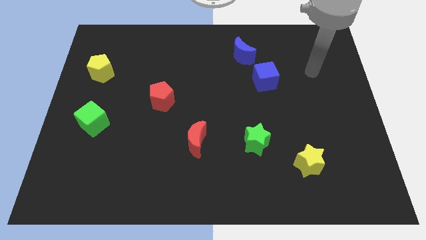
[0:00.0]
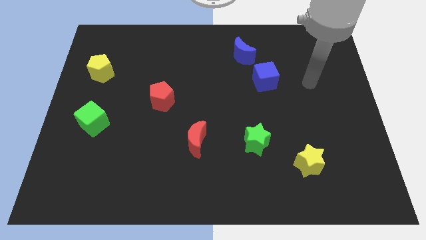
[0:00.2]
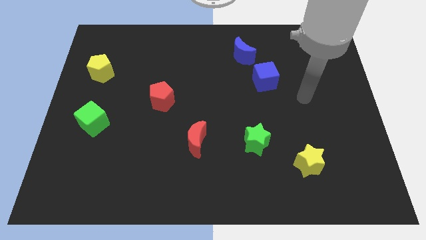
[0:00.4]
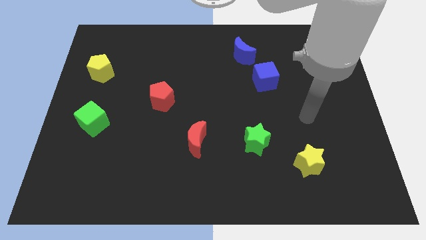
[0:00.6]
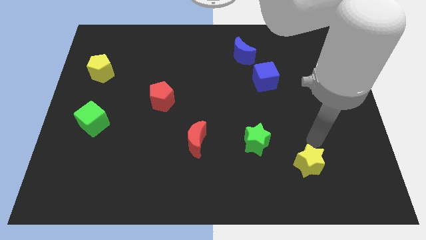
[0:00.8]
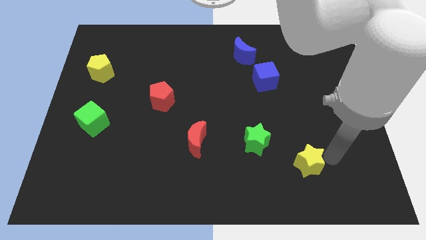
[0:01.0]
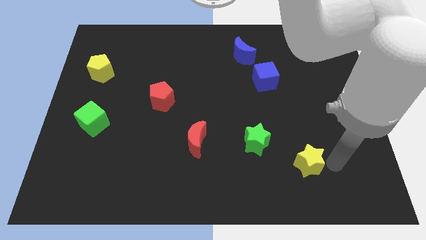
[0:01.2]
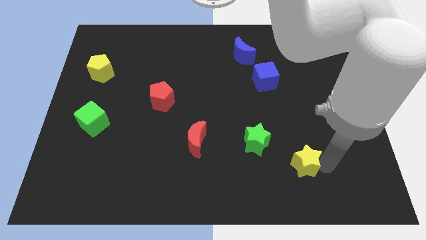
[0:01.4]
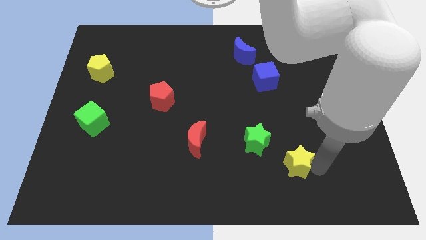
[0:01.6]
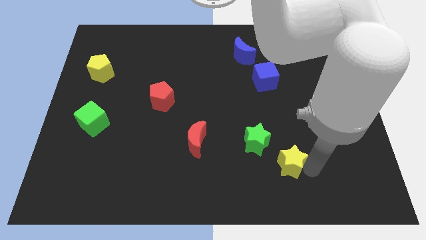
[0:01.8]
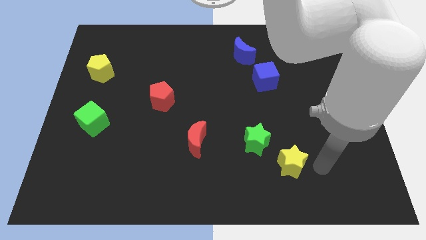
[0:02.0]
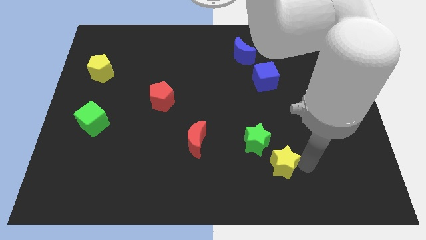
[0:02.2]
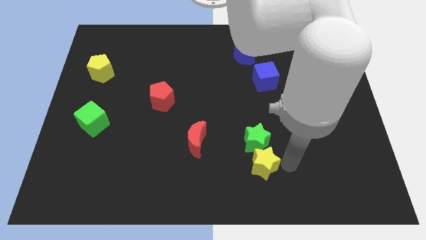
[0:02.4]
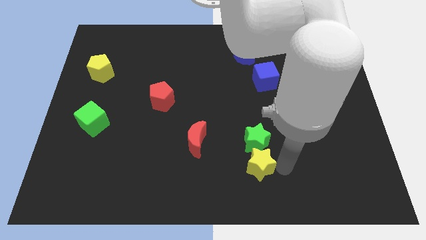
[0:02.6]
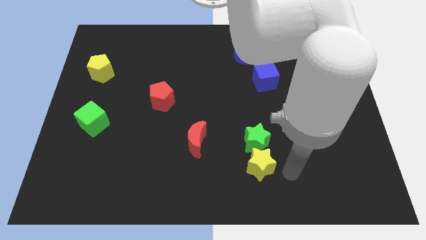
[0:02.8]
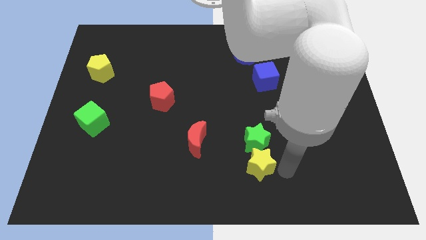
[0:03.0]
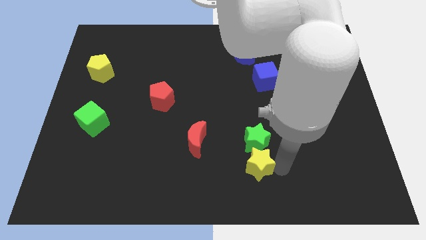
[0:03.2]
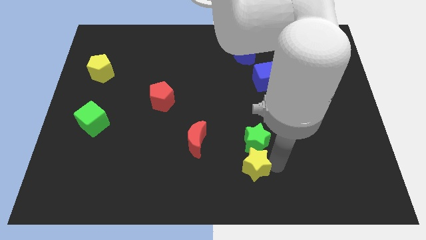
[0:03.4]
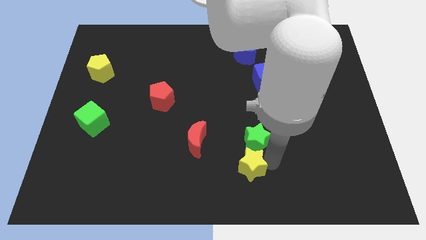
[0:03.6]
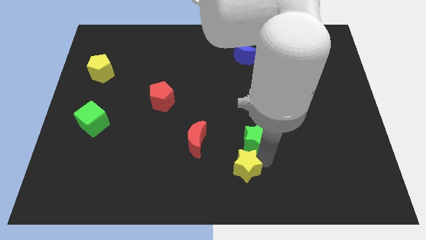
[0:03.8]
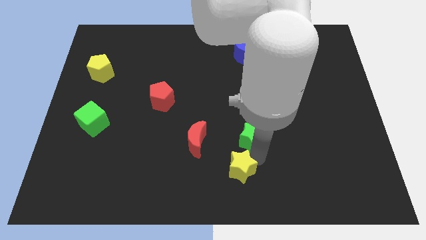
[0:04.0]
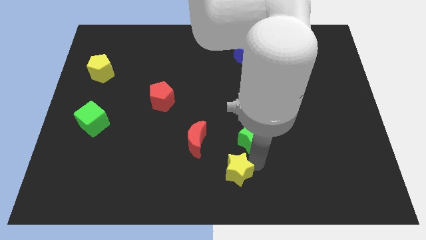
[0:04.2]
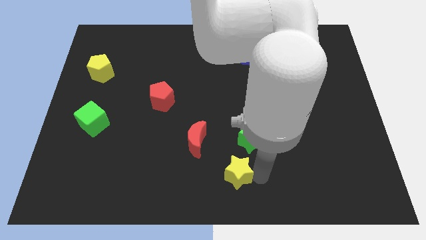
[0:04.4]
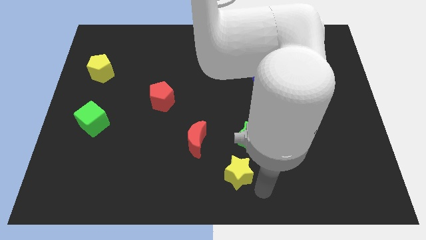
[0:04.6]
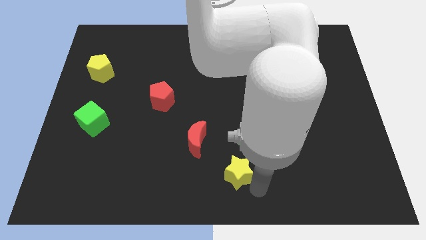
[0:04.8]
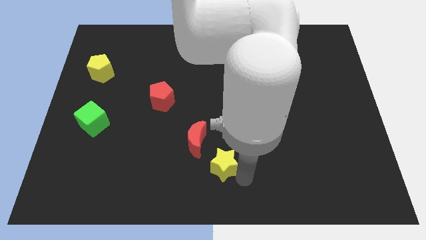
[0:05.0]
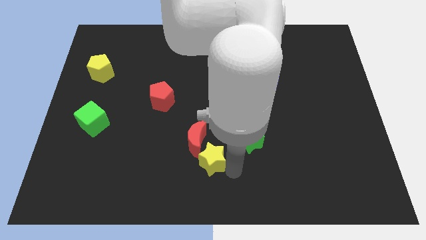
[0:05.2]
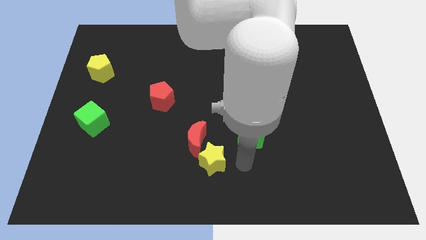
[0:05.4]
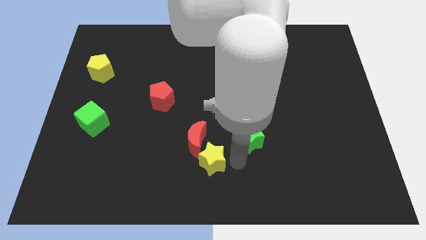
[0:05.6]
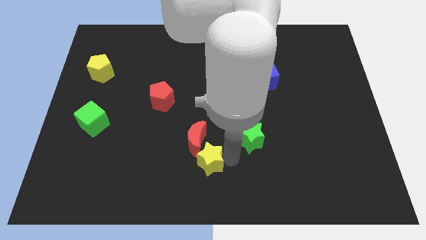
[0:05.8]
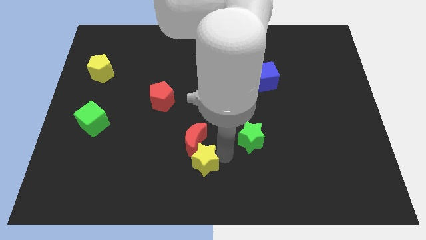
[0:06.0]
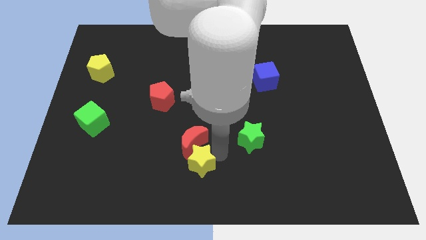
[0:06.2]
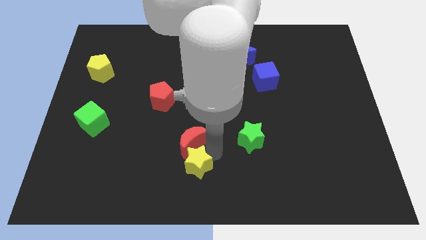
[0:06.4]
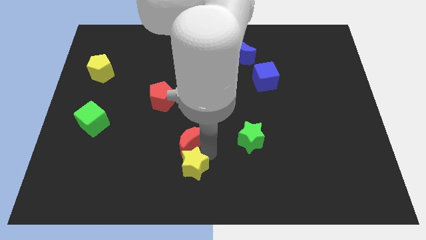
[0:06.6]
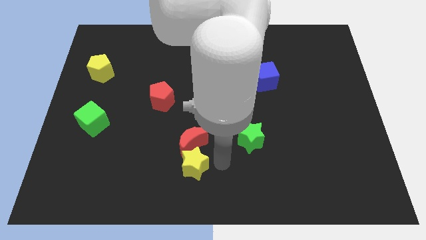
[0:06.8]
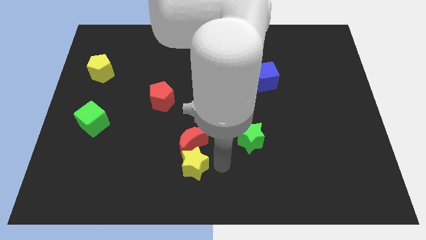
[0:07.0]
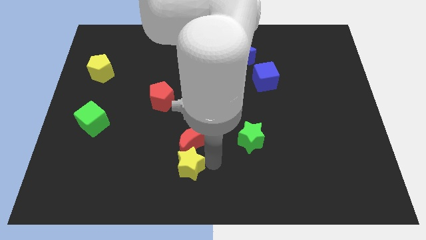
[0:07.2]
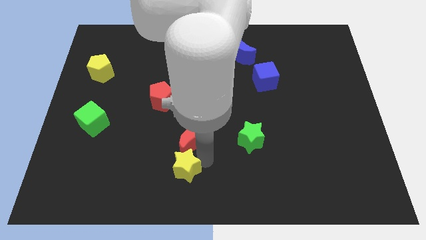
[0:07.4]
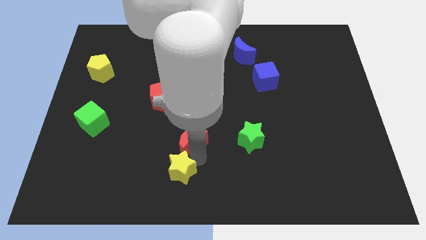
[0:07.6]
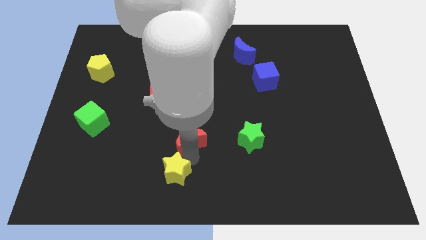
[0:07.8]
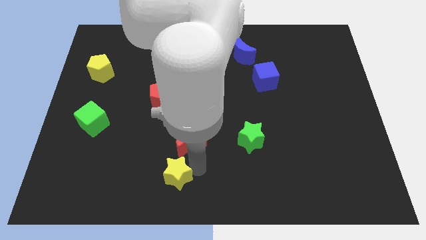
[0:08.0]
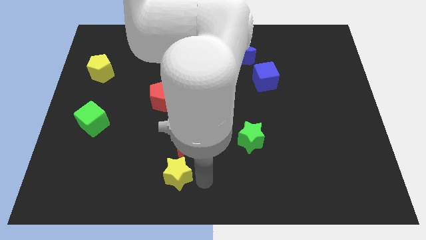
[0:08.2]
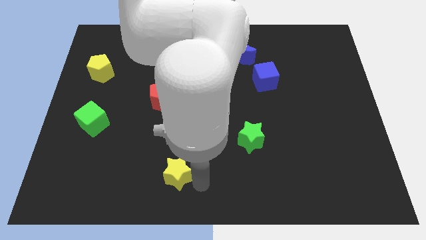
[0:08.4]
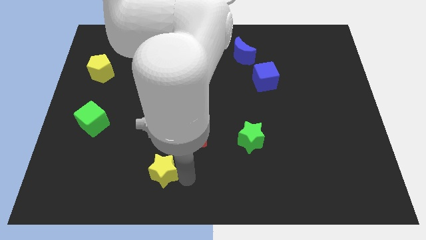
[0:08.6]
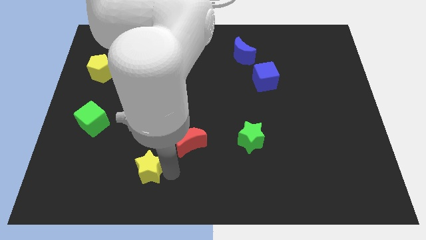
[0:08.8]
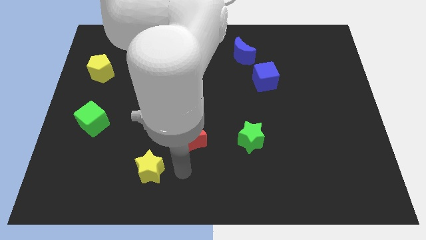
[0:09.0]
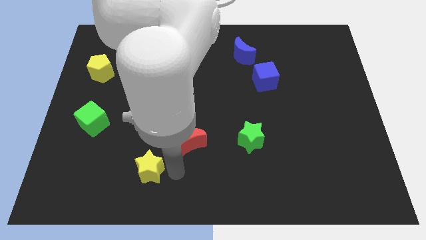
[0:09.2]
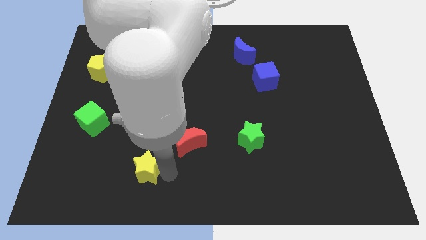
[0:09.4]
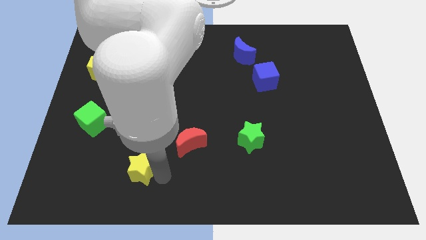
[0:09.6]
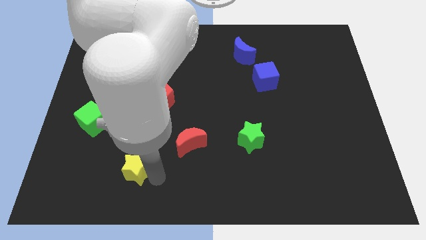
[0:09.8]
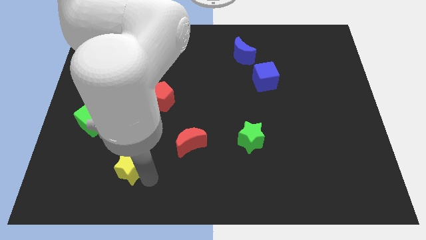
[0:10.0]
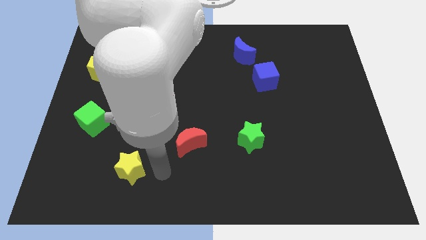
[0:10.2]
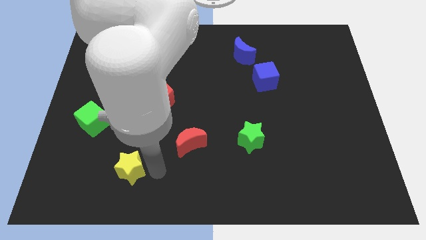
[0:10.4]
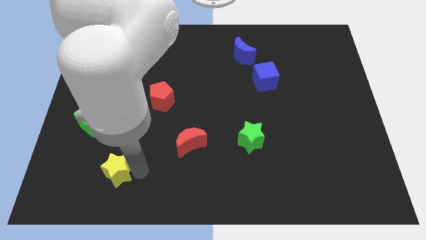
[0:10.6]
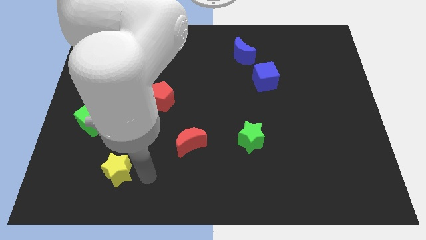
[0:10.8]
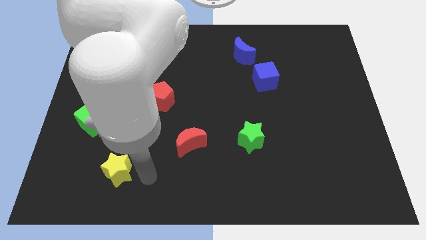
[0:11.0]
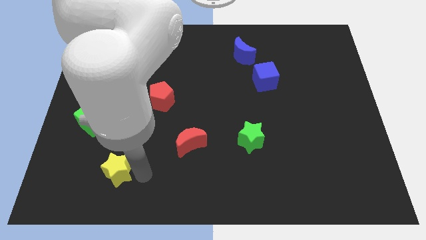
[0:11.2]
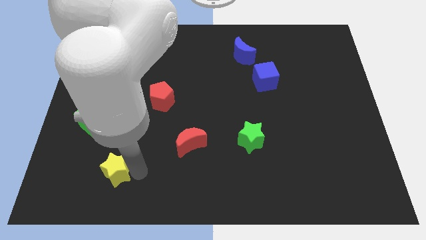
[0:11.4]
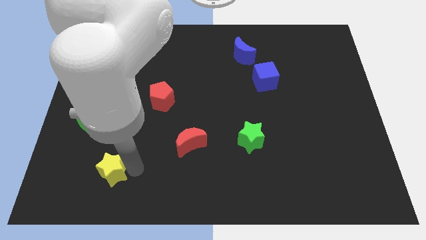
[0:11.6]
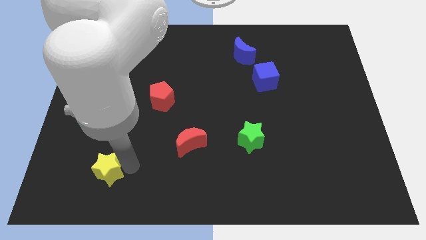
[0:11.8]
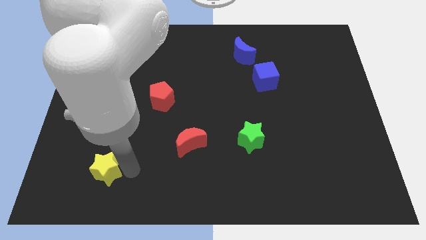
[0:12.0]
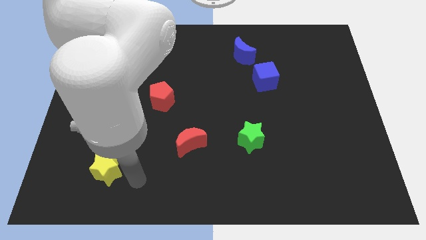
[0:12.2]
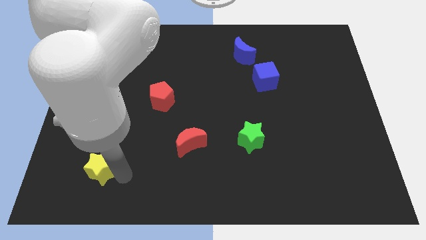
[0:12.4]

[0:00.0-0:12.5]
slide the yellow star below the green cube

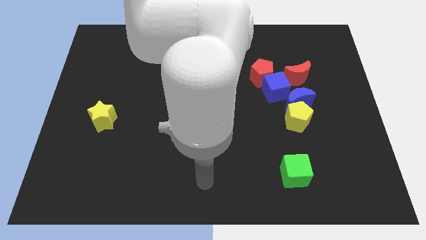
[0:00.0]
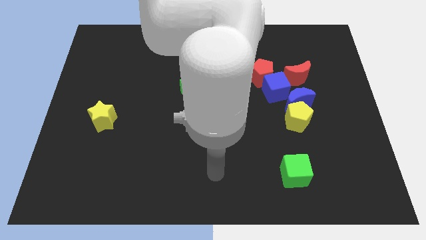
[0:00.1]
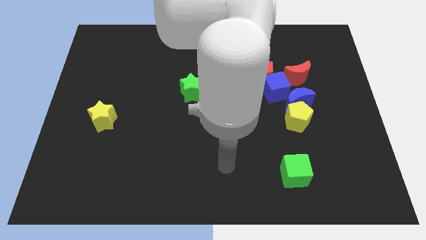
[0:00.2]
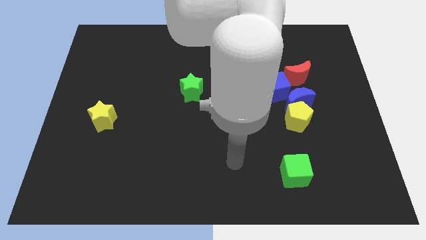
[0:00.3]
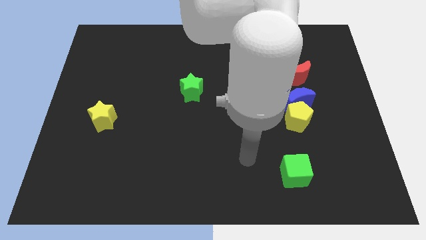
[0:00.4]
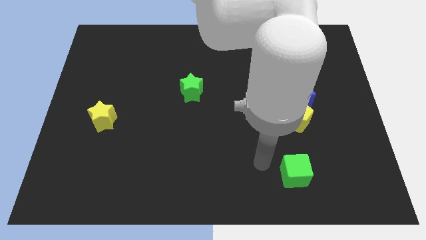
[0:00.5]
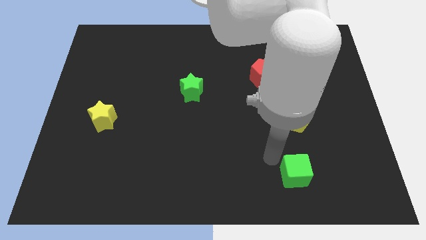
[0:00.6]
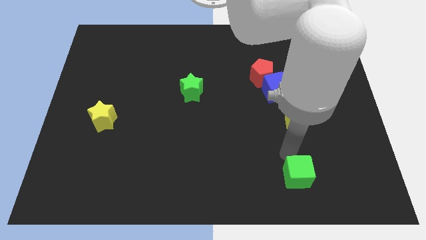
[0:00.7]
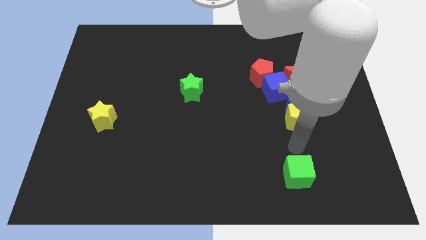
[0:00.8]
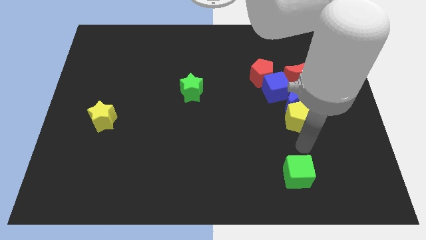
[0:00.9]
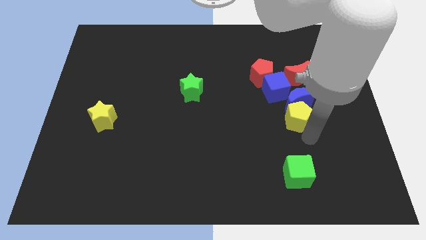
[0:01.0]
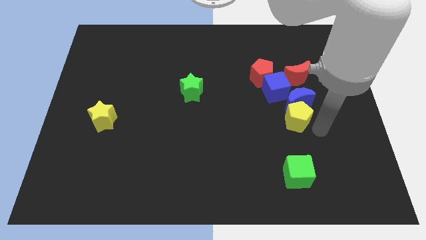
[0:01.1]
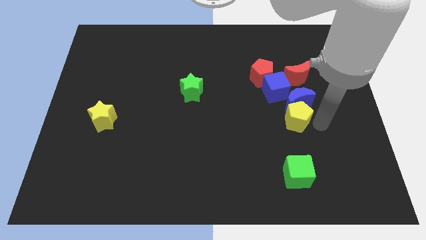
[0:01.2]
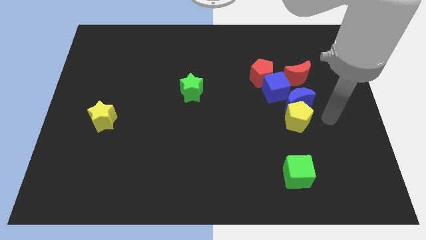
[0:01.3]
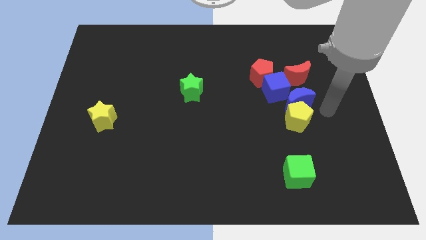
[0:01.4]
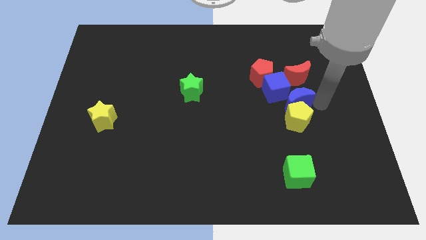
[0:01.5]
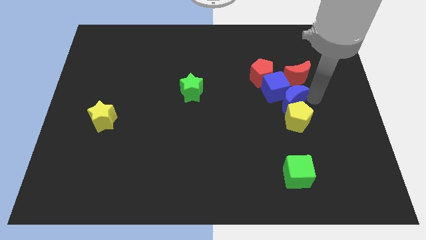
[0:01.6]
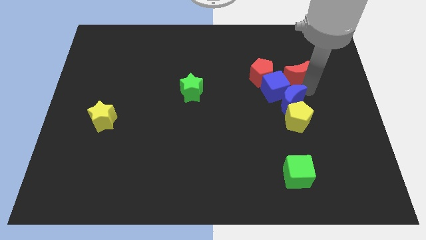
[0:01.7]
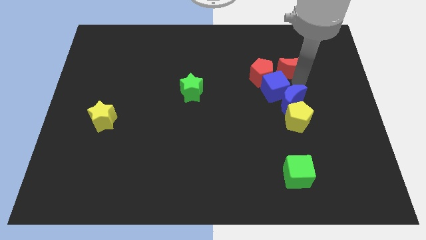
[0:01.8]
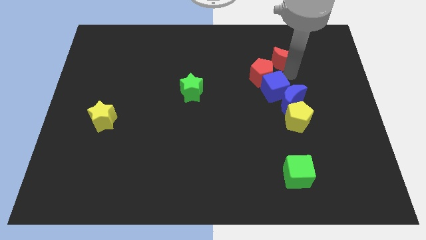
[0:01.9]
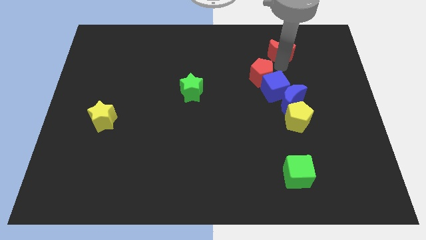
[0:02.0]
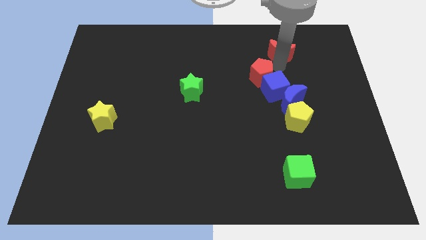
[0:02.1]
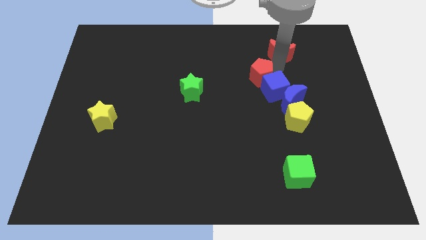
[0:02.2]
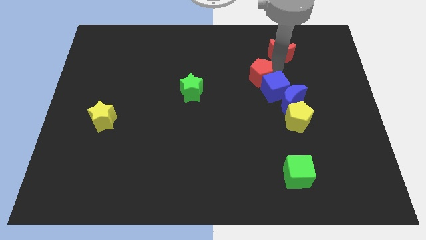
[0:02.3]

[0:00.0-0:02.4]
move the red pentagon left of the blue cube
